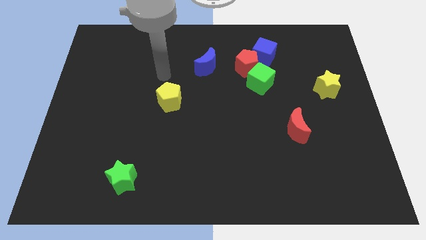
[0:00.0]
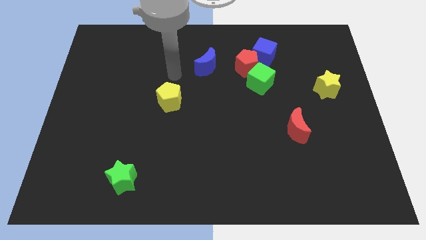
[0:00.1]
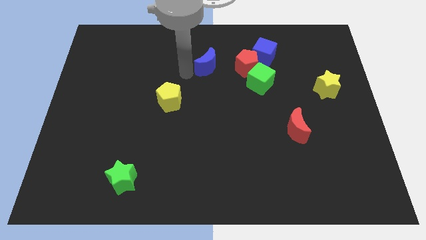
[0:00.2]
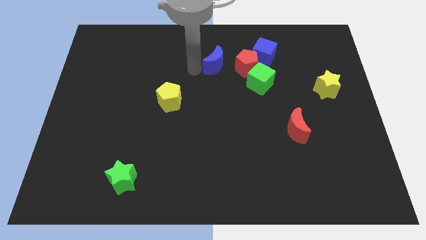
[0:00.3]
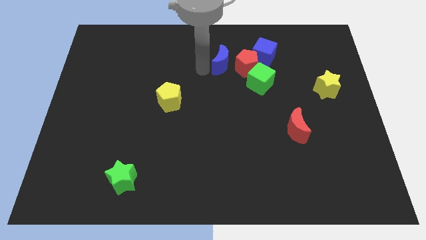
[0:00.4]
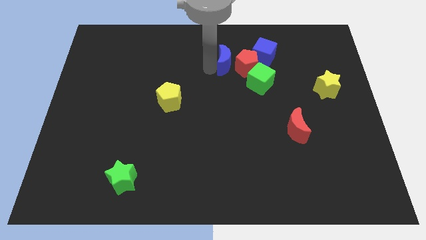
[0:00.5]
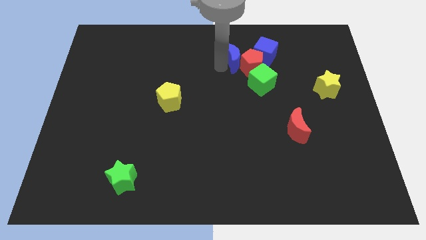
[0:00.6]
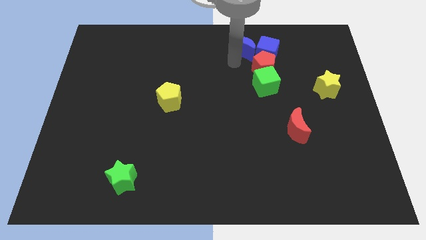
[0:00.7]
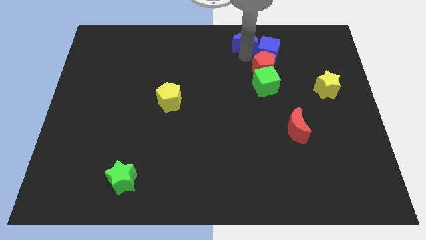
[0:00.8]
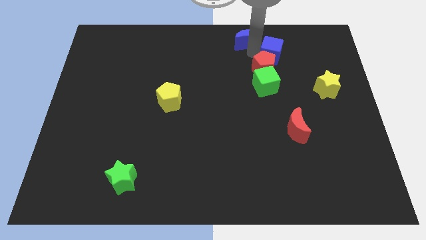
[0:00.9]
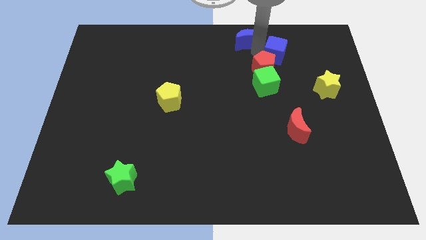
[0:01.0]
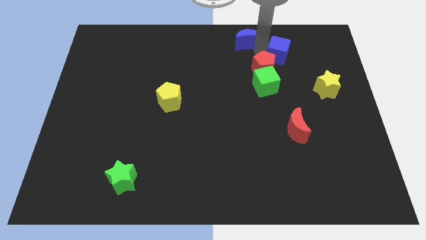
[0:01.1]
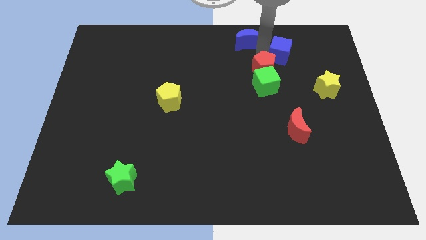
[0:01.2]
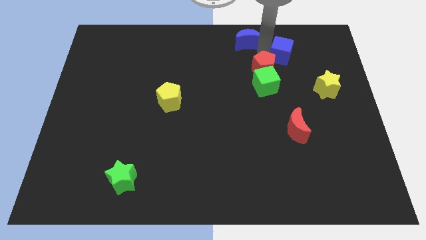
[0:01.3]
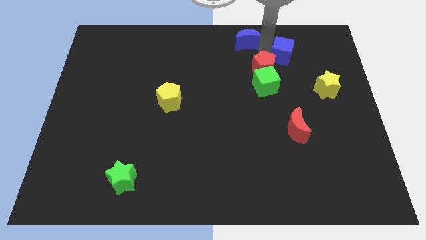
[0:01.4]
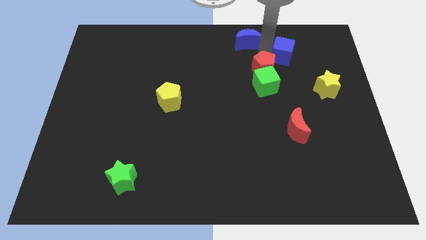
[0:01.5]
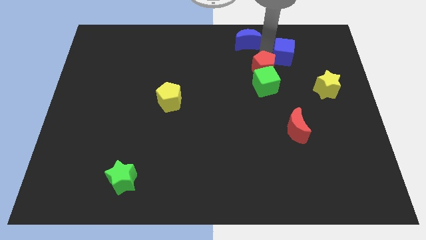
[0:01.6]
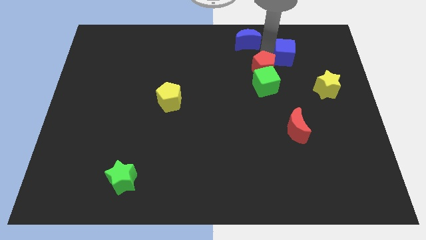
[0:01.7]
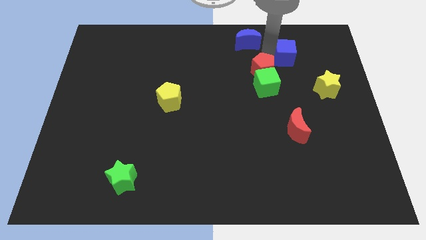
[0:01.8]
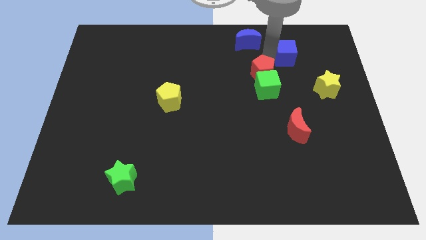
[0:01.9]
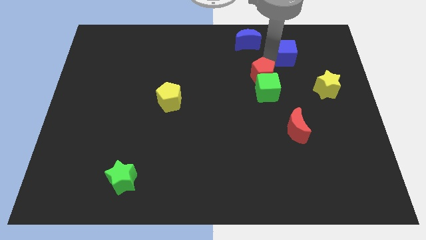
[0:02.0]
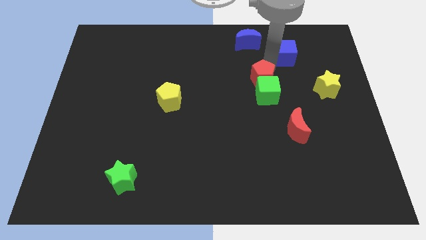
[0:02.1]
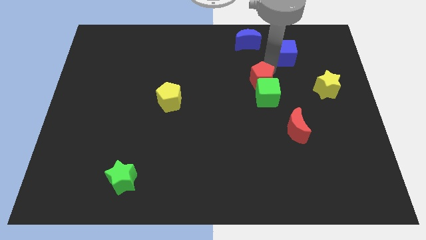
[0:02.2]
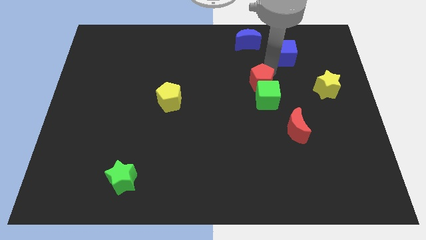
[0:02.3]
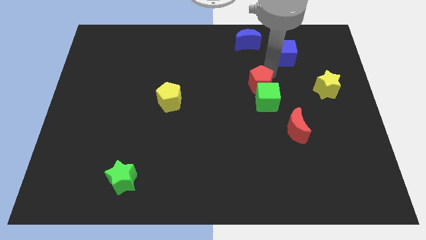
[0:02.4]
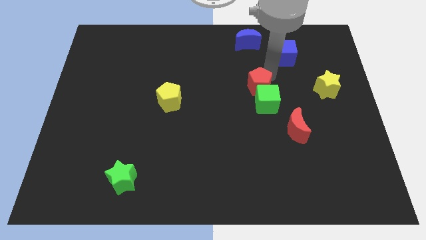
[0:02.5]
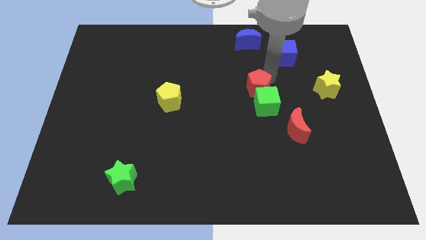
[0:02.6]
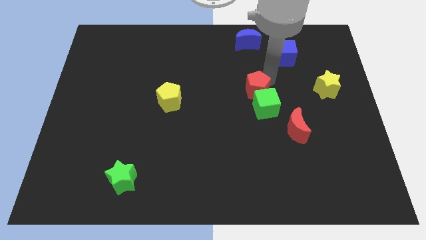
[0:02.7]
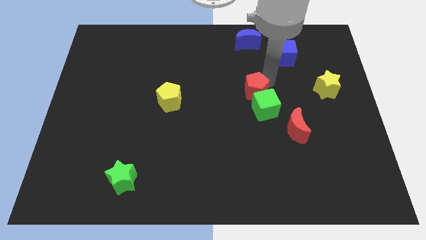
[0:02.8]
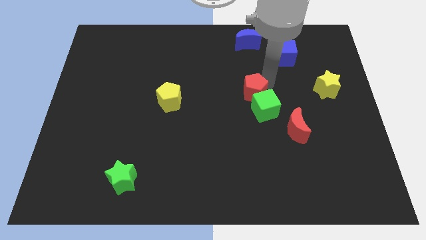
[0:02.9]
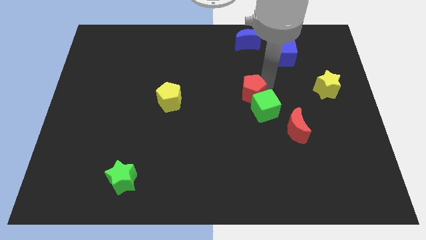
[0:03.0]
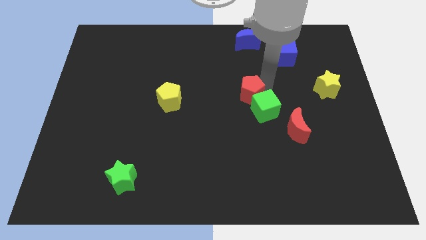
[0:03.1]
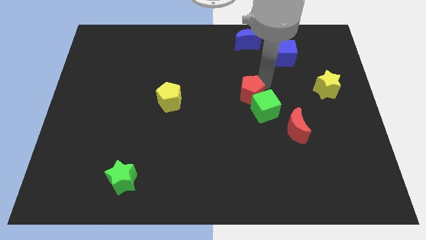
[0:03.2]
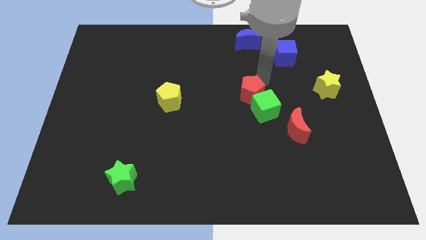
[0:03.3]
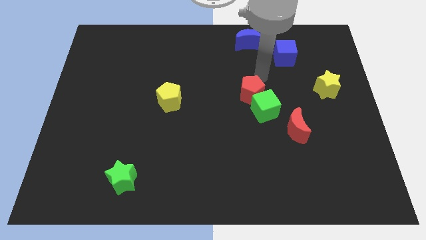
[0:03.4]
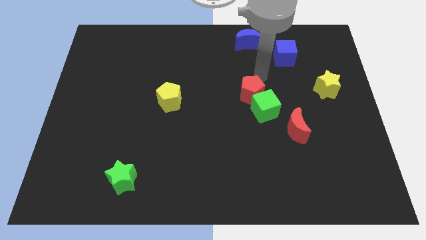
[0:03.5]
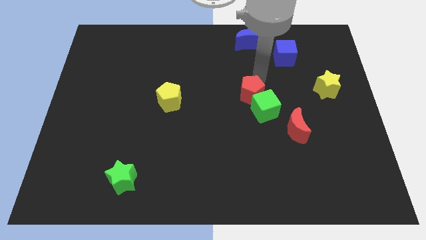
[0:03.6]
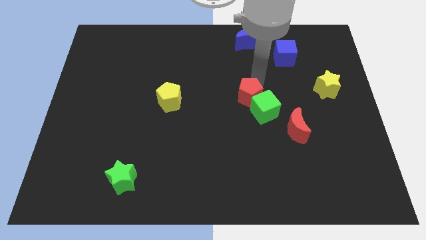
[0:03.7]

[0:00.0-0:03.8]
pull the red pentagon apart from the green cube, blue cube, and blue moon

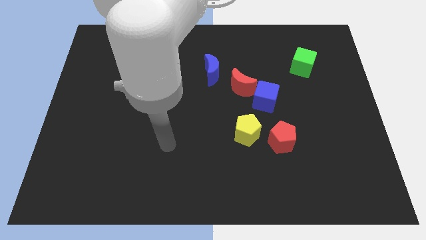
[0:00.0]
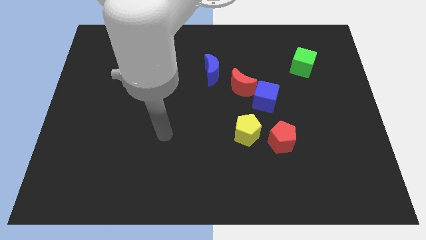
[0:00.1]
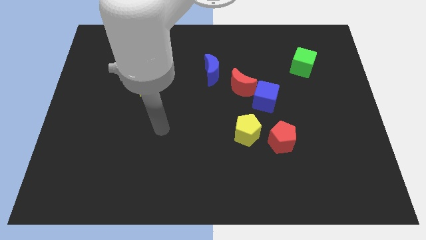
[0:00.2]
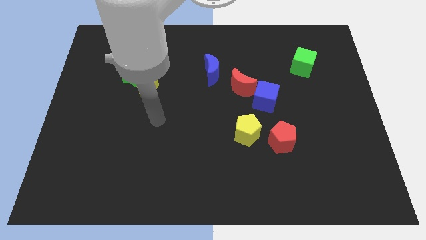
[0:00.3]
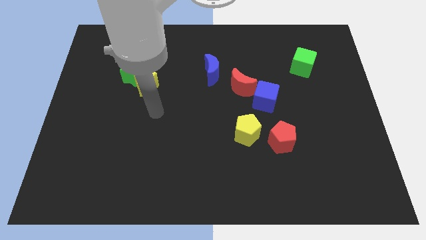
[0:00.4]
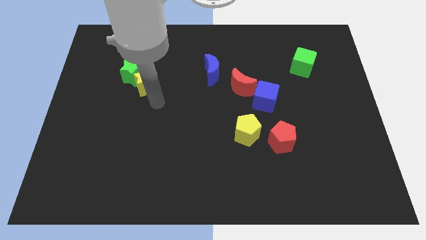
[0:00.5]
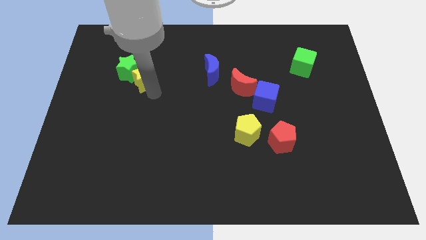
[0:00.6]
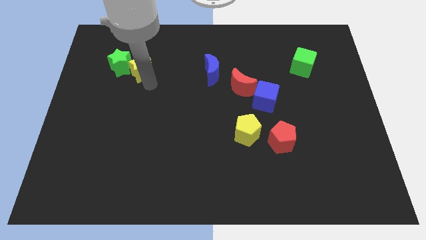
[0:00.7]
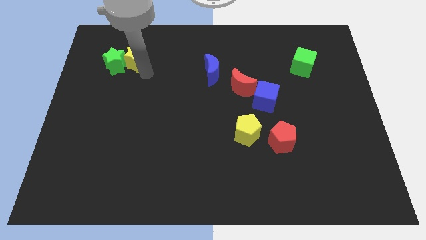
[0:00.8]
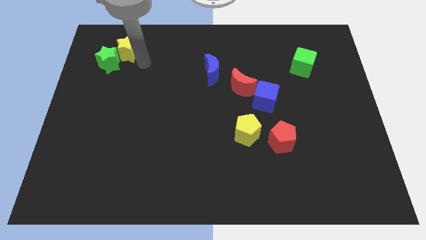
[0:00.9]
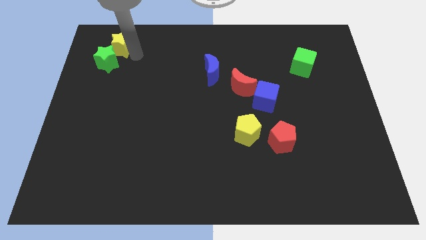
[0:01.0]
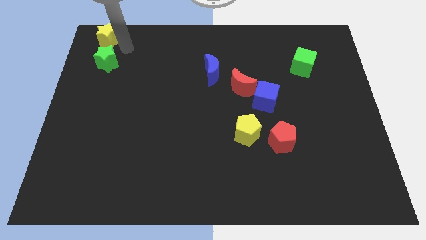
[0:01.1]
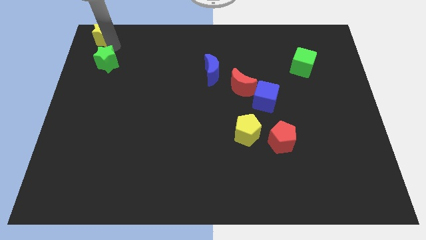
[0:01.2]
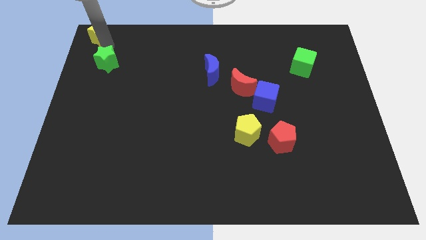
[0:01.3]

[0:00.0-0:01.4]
move the green star away from the yellow star

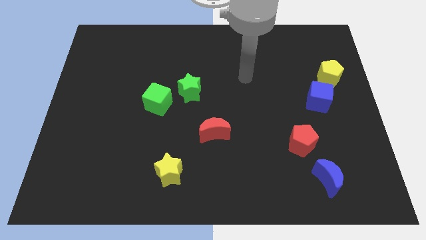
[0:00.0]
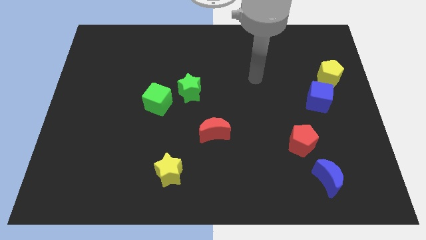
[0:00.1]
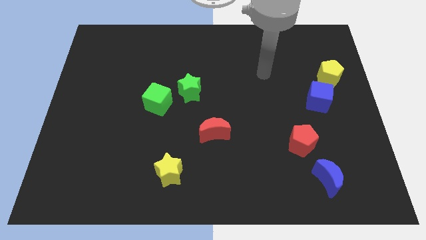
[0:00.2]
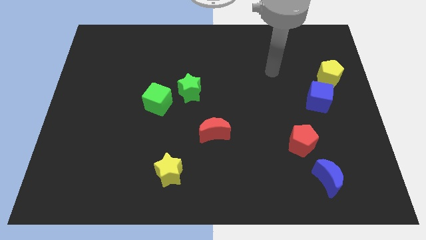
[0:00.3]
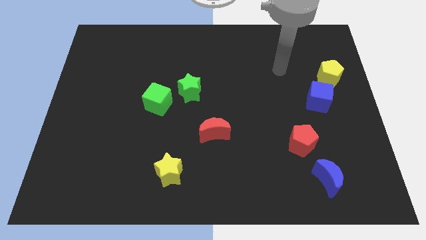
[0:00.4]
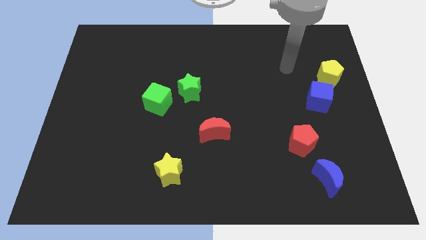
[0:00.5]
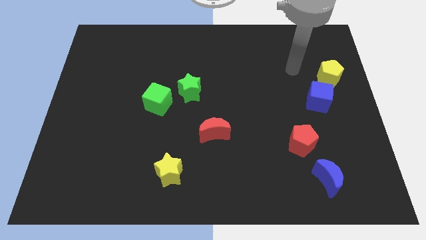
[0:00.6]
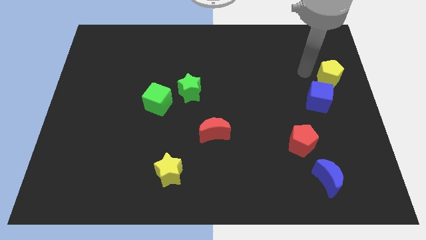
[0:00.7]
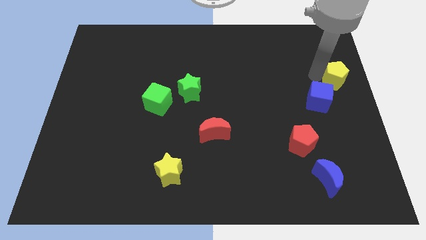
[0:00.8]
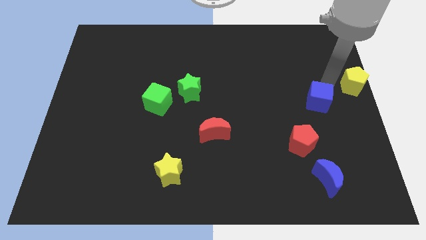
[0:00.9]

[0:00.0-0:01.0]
pull the blue cube apart from the yellow pentagon

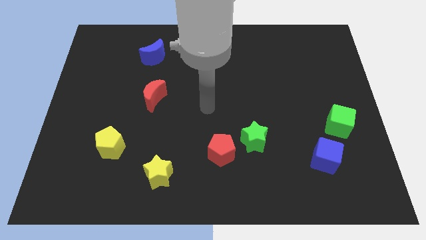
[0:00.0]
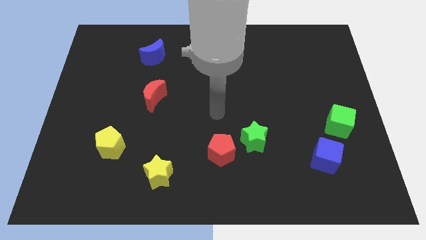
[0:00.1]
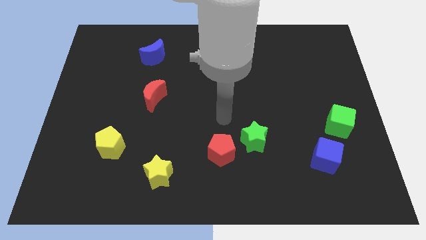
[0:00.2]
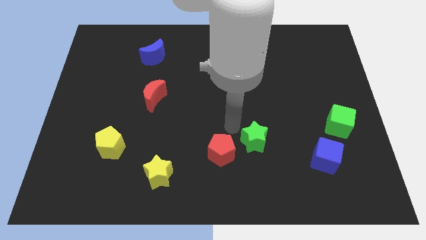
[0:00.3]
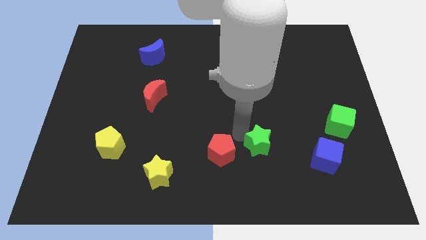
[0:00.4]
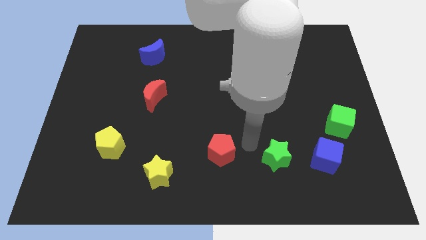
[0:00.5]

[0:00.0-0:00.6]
separate the red pentagon from the green star

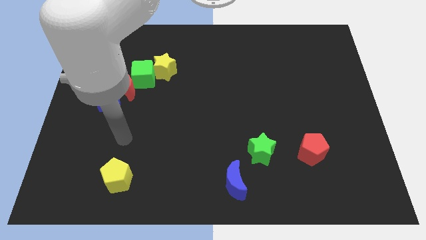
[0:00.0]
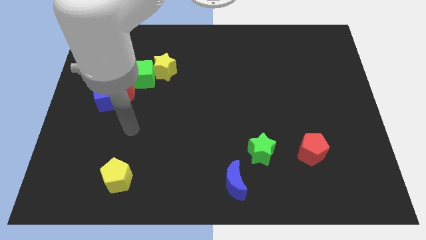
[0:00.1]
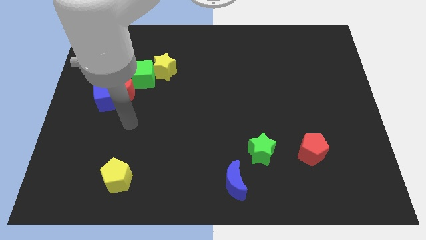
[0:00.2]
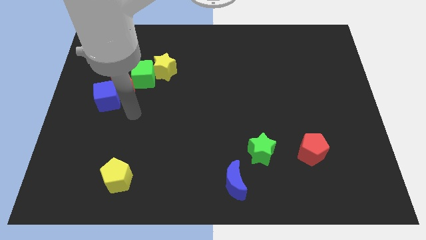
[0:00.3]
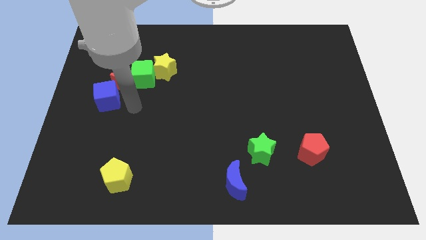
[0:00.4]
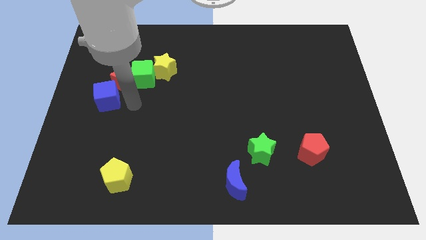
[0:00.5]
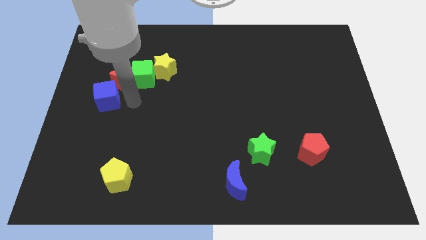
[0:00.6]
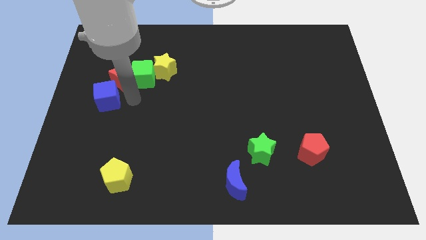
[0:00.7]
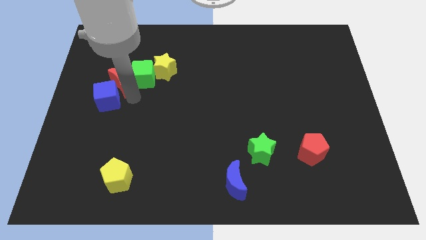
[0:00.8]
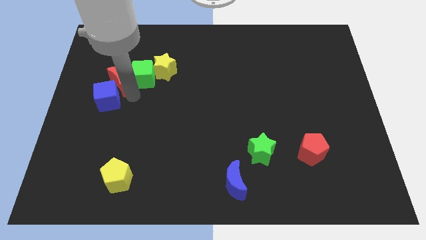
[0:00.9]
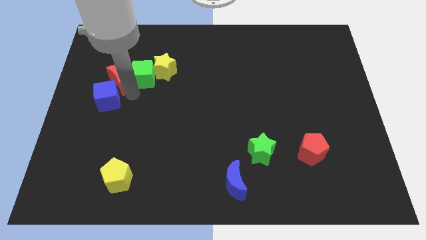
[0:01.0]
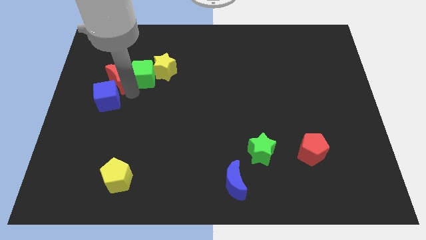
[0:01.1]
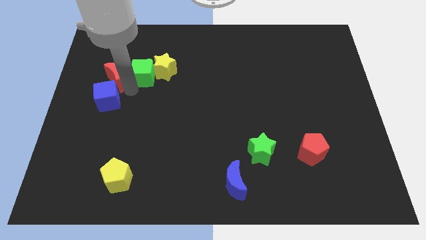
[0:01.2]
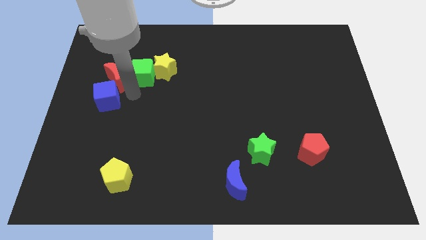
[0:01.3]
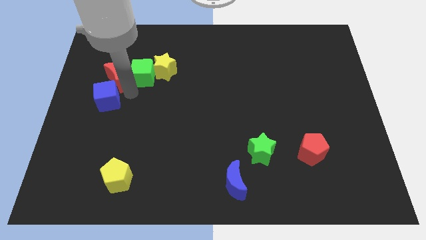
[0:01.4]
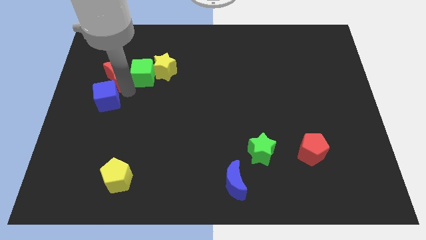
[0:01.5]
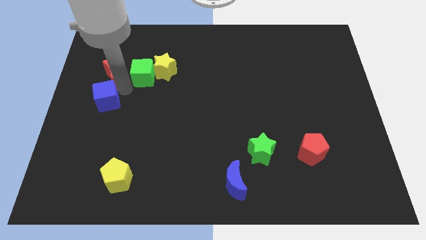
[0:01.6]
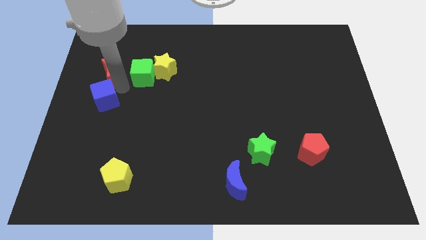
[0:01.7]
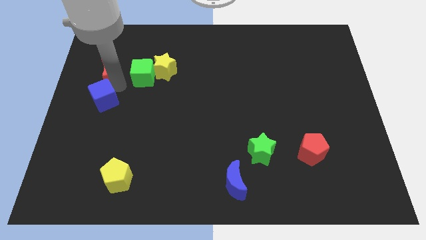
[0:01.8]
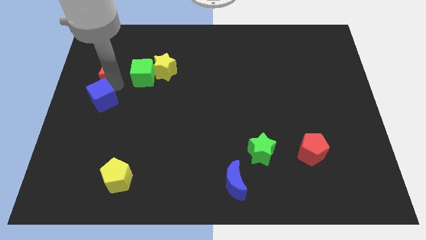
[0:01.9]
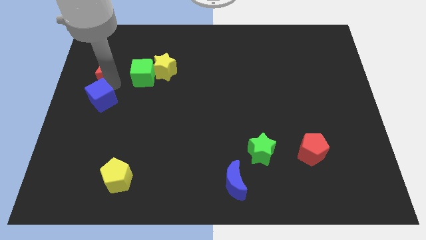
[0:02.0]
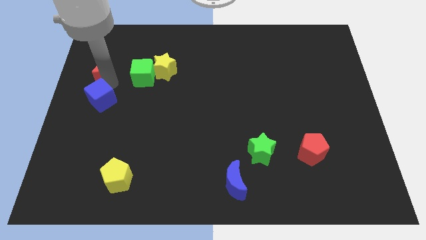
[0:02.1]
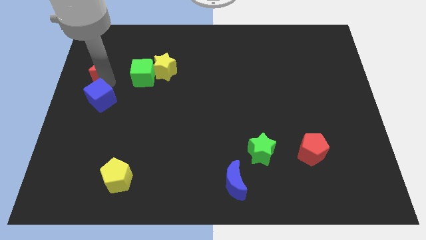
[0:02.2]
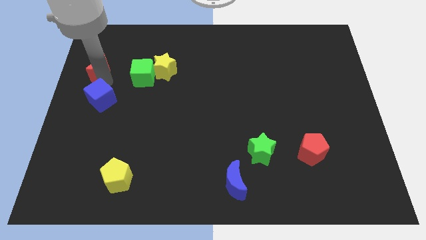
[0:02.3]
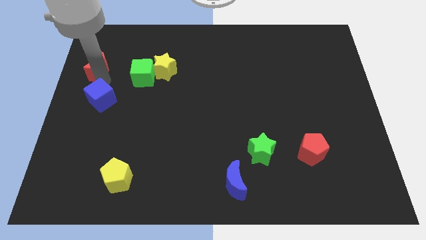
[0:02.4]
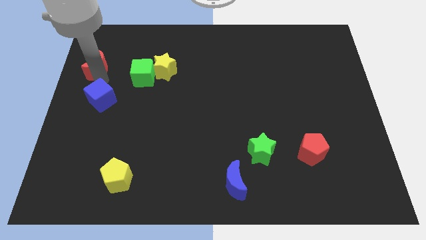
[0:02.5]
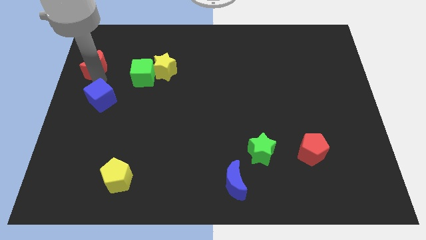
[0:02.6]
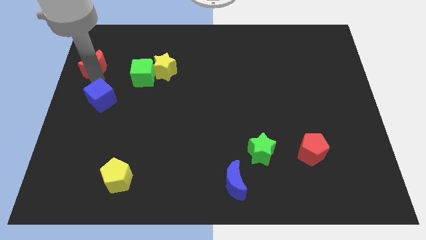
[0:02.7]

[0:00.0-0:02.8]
pull the red moon apart from the green cube and blue cube
